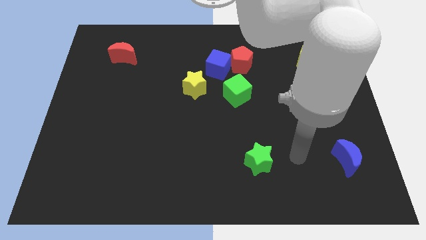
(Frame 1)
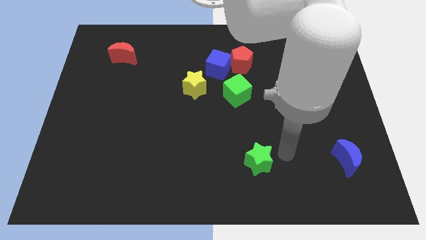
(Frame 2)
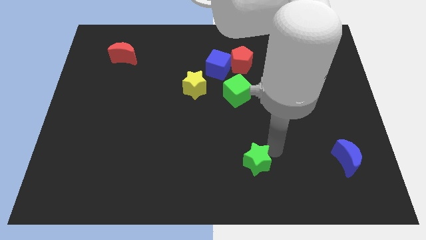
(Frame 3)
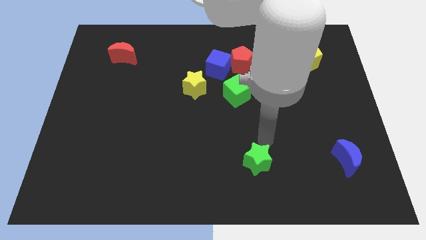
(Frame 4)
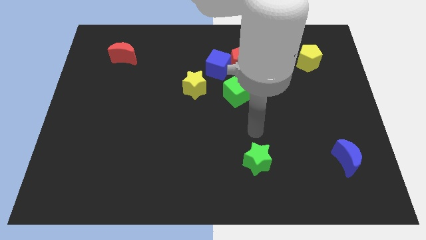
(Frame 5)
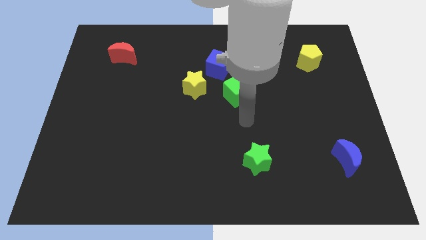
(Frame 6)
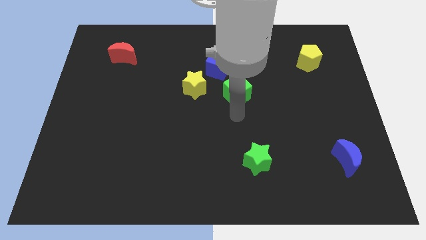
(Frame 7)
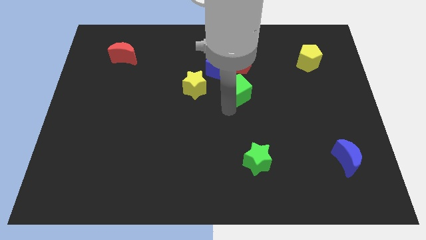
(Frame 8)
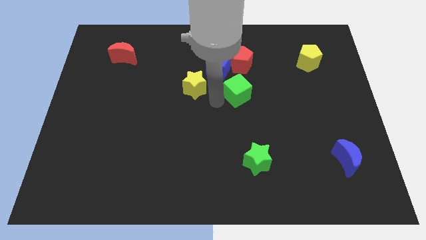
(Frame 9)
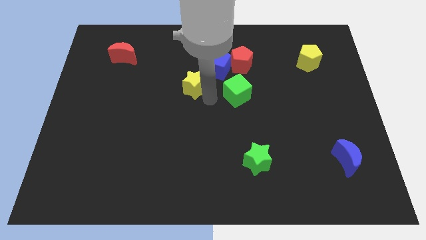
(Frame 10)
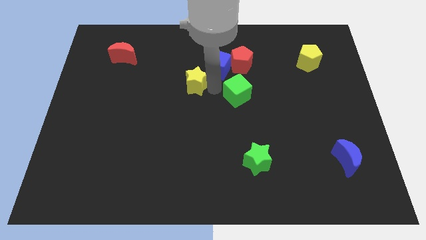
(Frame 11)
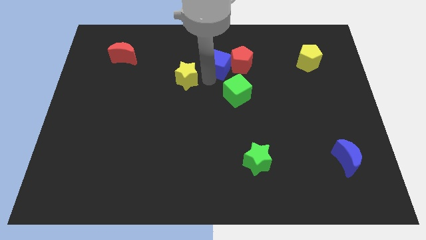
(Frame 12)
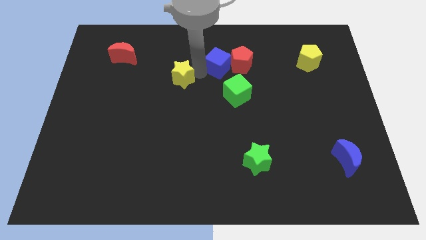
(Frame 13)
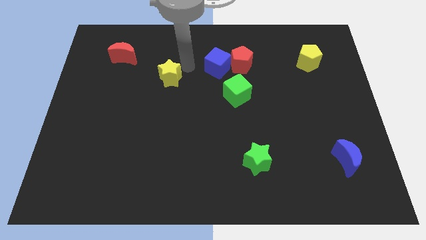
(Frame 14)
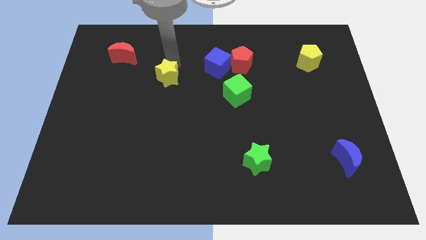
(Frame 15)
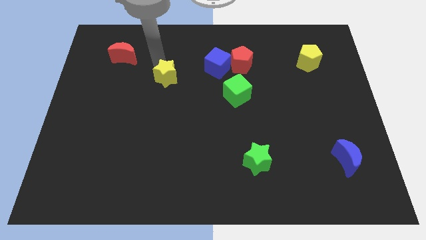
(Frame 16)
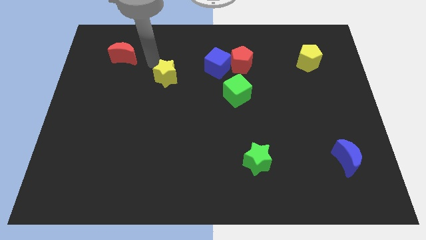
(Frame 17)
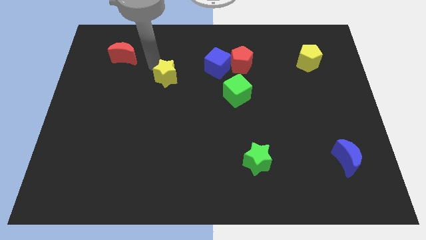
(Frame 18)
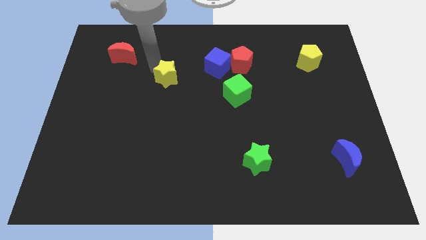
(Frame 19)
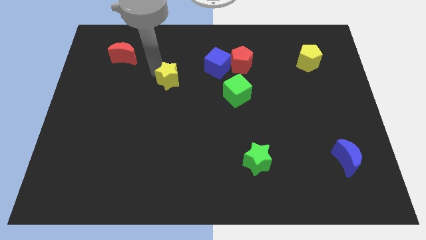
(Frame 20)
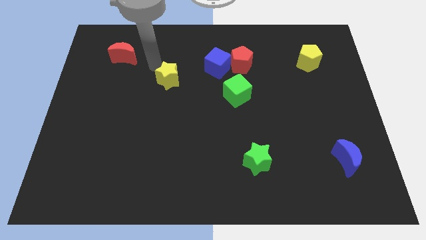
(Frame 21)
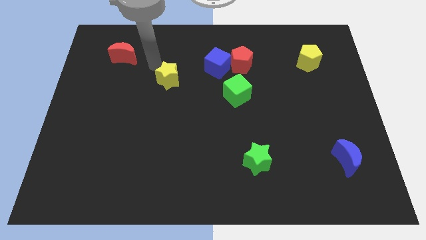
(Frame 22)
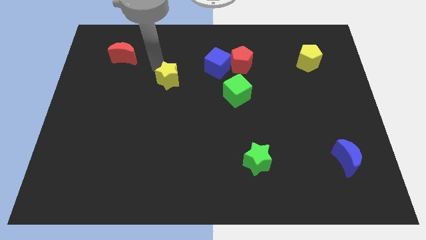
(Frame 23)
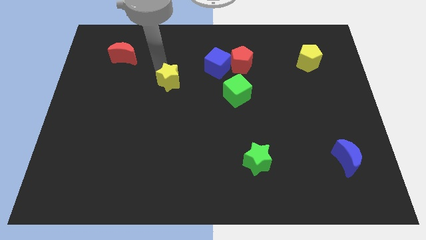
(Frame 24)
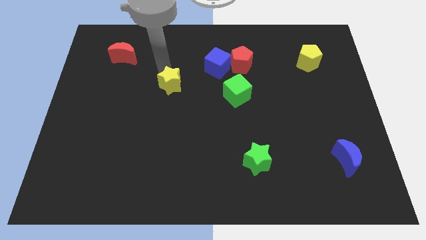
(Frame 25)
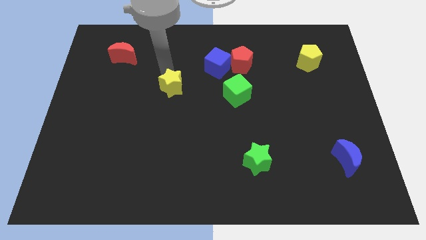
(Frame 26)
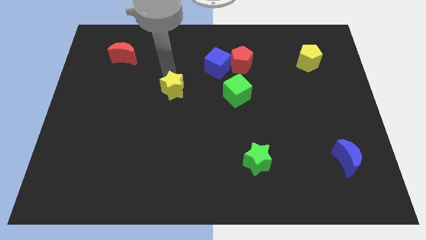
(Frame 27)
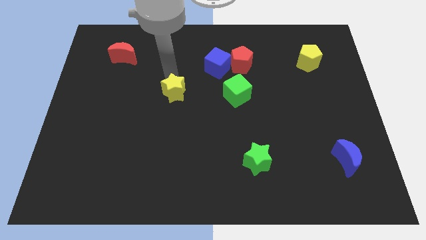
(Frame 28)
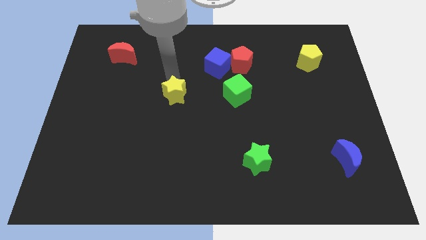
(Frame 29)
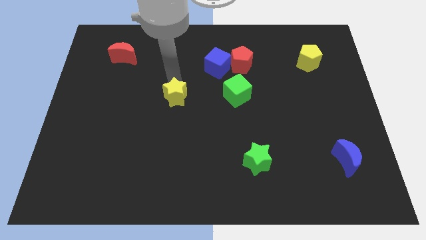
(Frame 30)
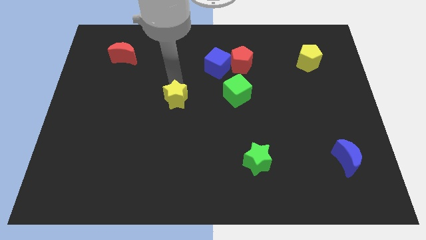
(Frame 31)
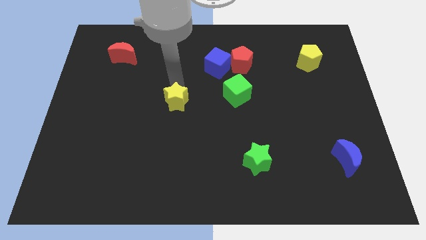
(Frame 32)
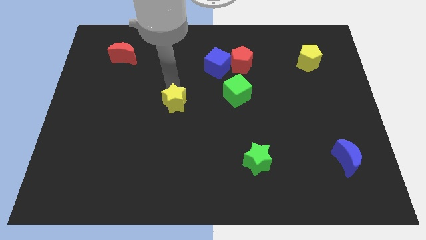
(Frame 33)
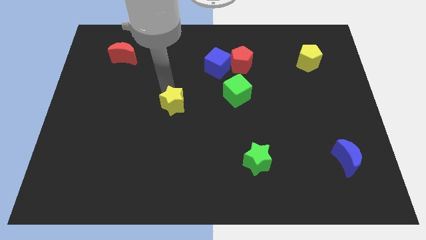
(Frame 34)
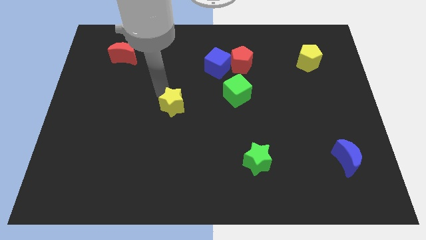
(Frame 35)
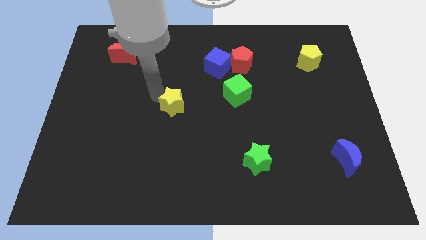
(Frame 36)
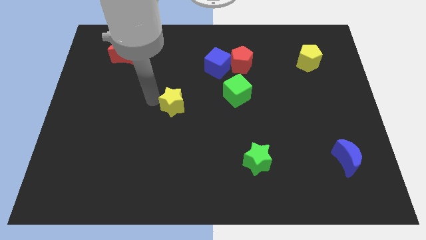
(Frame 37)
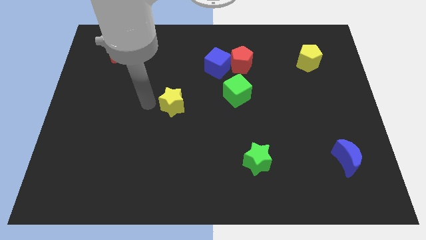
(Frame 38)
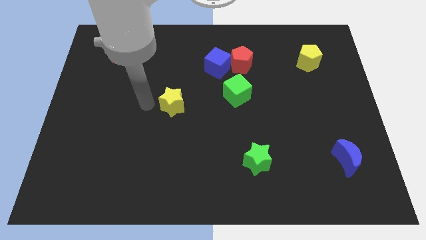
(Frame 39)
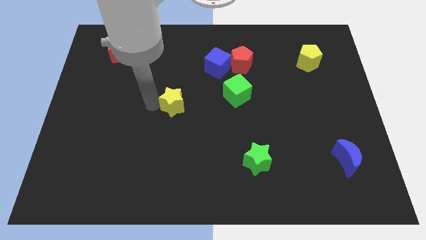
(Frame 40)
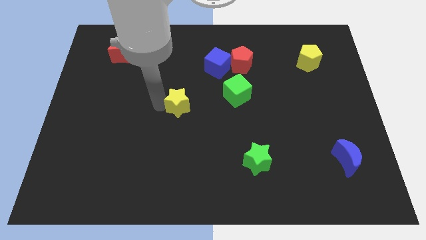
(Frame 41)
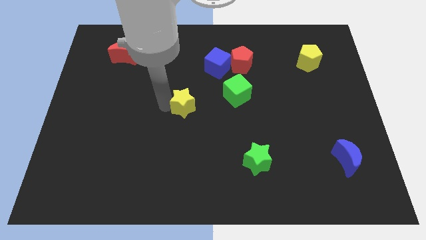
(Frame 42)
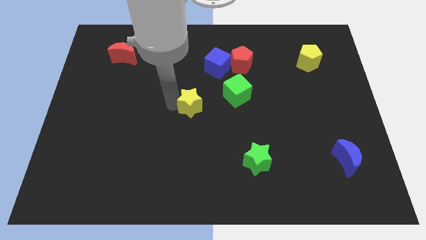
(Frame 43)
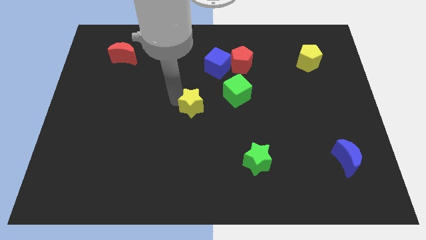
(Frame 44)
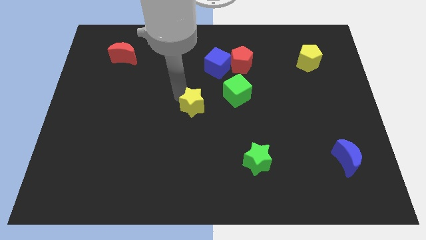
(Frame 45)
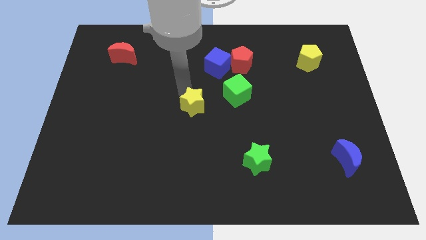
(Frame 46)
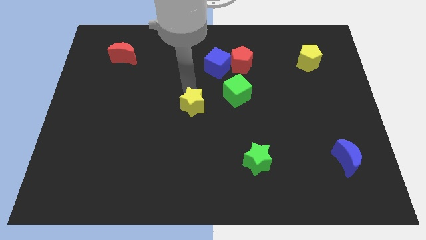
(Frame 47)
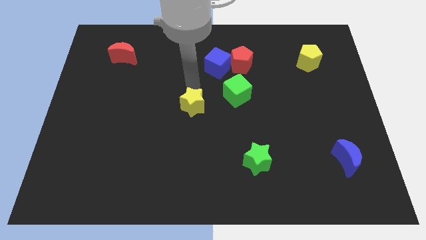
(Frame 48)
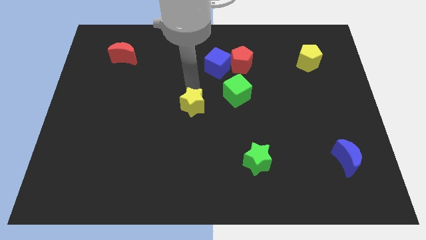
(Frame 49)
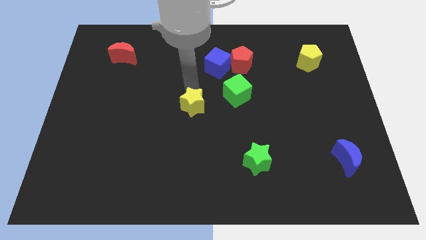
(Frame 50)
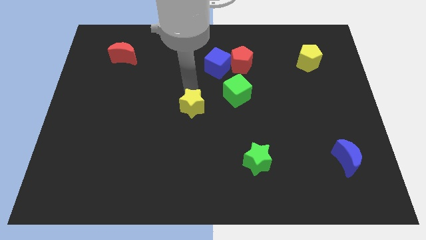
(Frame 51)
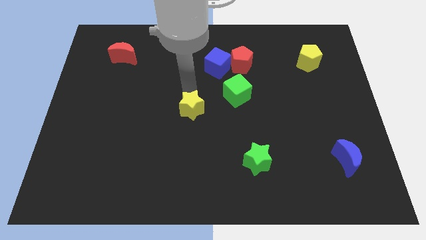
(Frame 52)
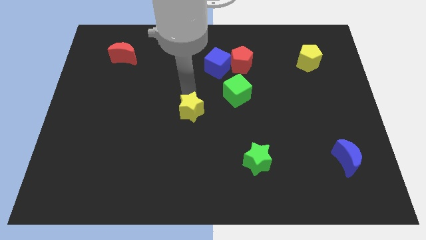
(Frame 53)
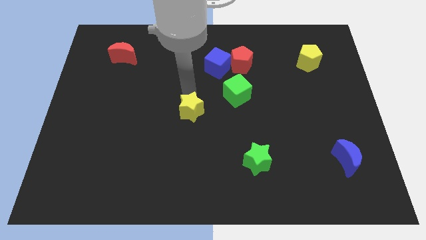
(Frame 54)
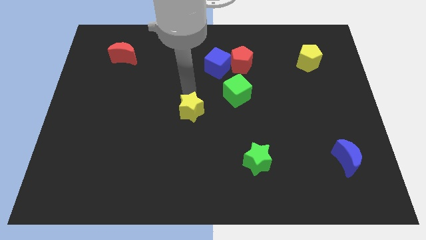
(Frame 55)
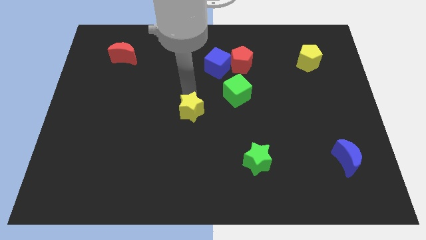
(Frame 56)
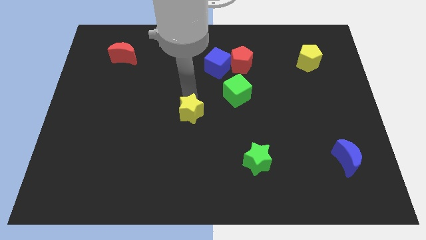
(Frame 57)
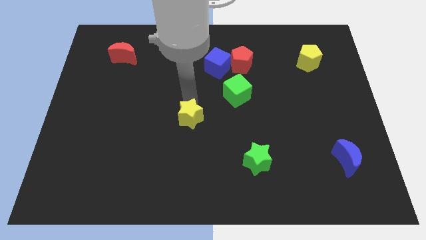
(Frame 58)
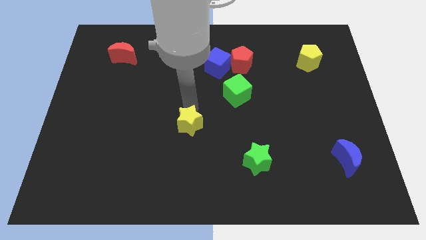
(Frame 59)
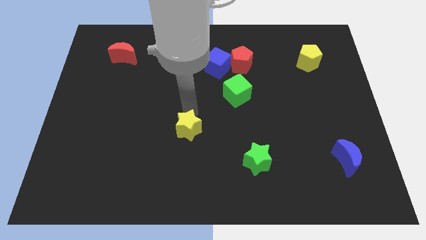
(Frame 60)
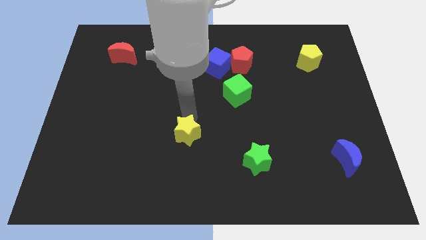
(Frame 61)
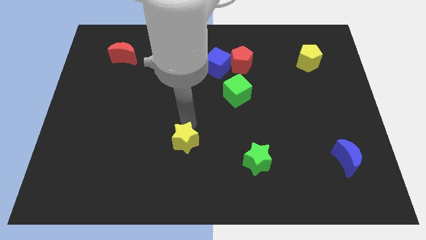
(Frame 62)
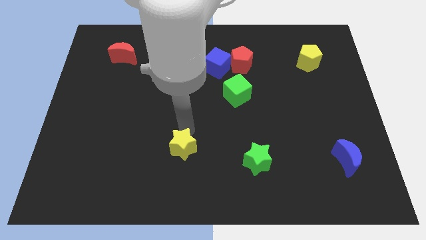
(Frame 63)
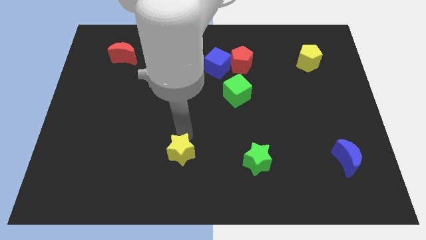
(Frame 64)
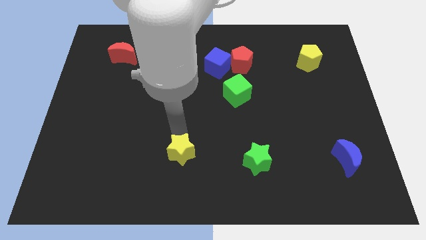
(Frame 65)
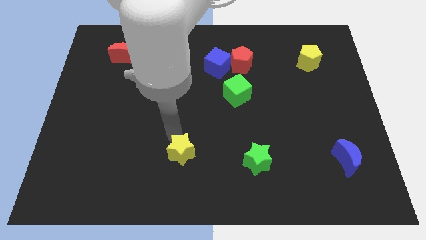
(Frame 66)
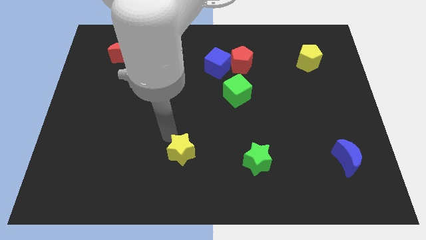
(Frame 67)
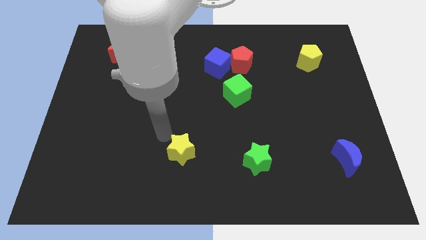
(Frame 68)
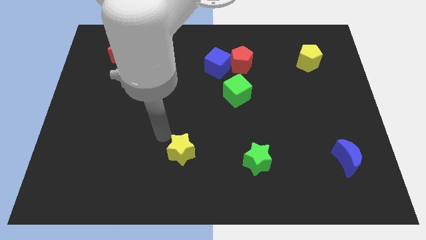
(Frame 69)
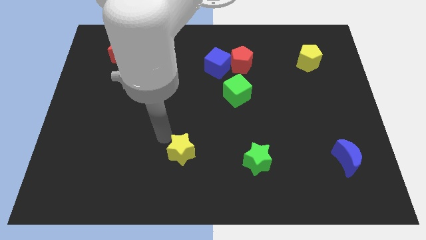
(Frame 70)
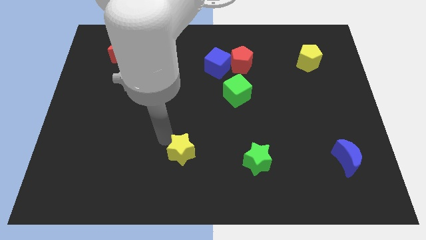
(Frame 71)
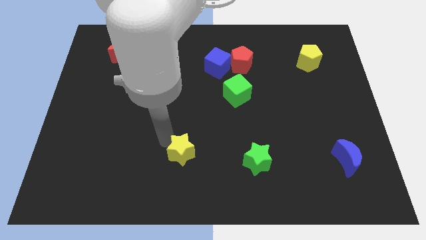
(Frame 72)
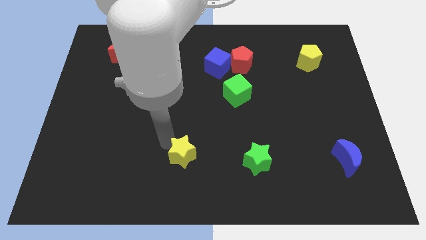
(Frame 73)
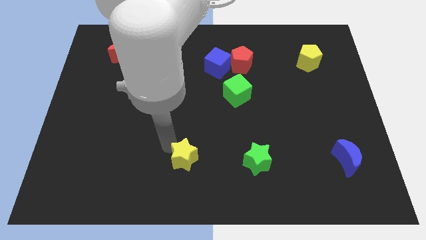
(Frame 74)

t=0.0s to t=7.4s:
put the yellow star to the bottom
